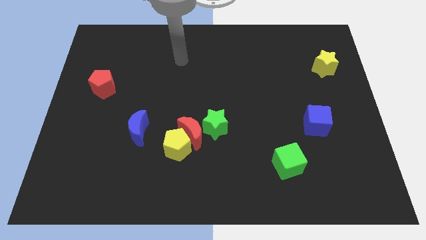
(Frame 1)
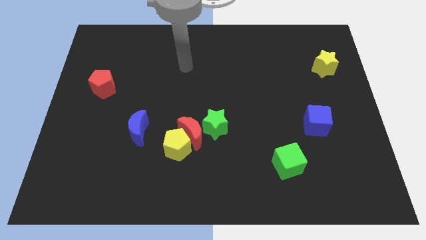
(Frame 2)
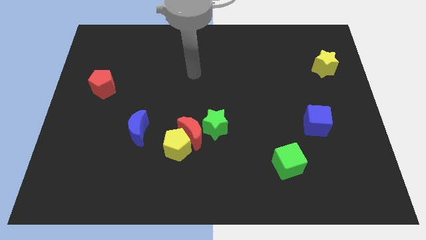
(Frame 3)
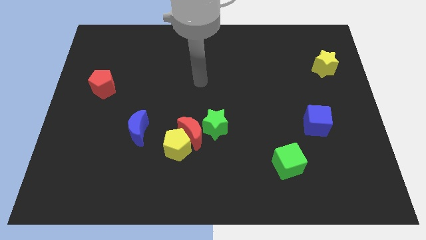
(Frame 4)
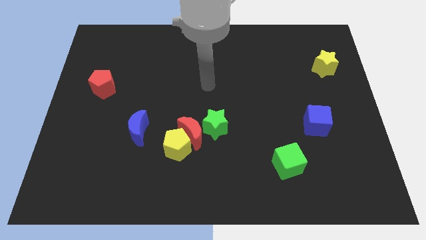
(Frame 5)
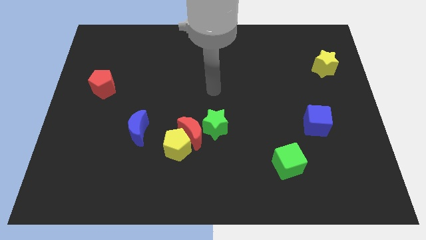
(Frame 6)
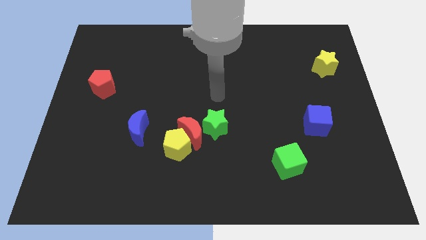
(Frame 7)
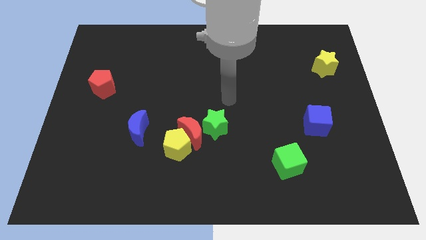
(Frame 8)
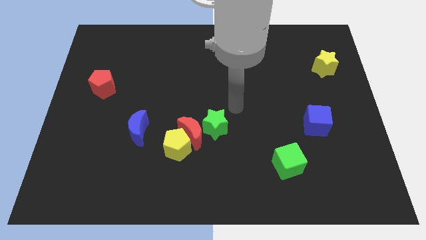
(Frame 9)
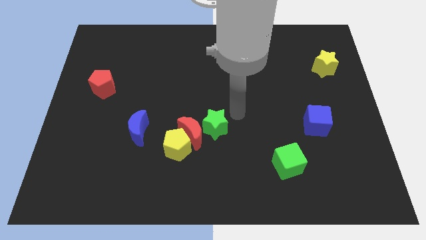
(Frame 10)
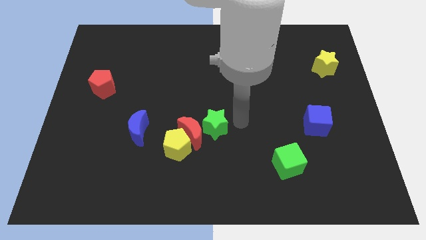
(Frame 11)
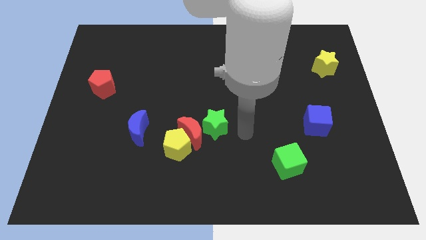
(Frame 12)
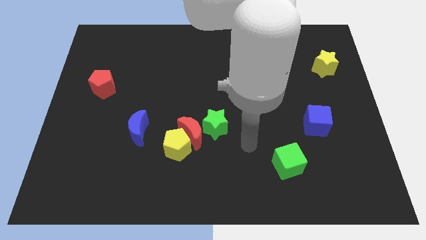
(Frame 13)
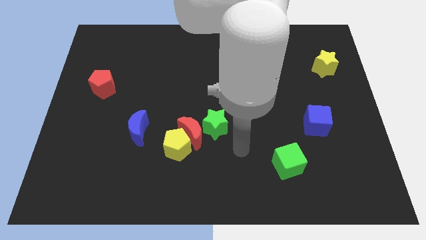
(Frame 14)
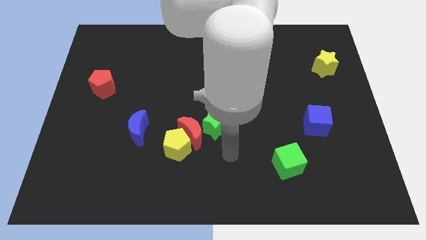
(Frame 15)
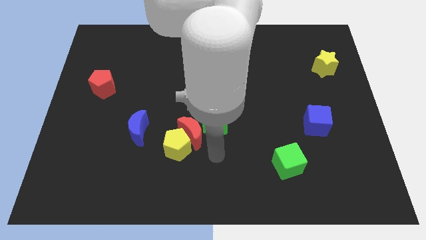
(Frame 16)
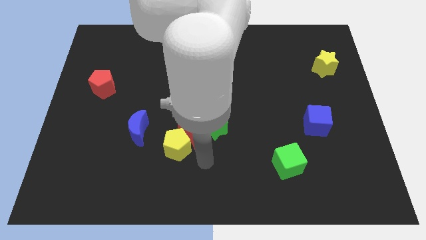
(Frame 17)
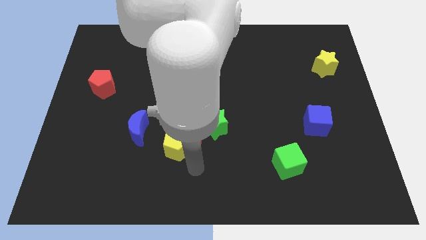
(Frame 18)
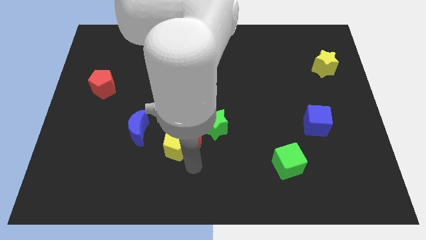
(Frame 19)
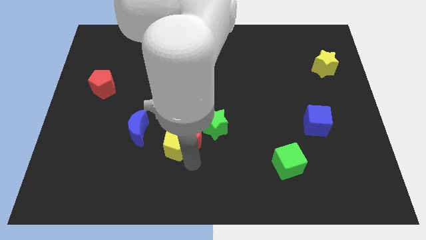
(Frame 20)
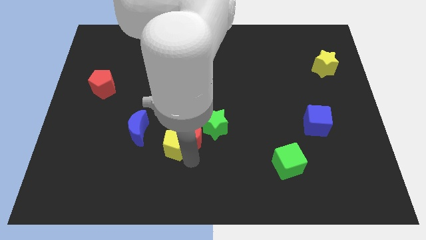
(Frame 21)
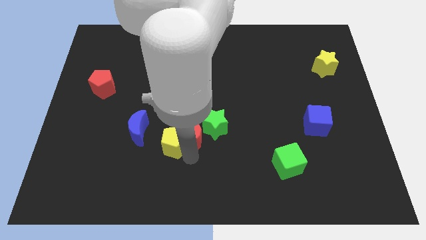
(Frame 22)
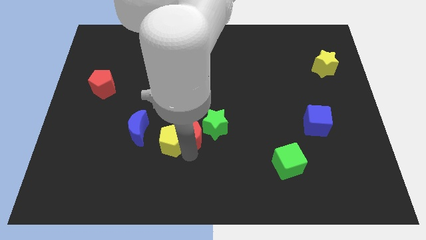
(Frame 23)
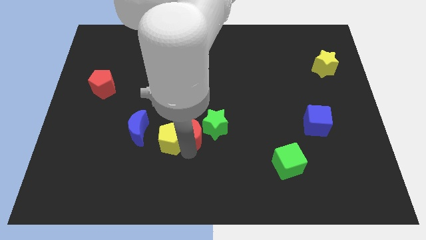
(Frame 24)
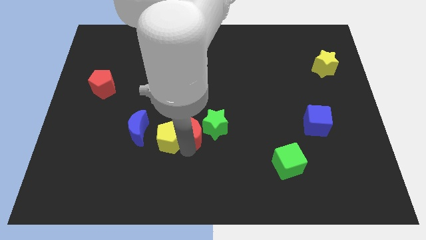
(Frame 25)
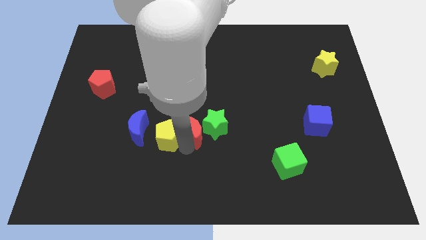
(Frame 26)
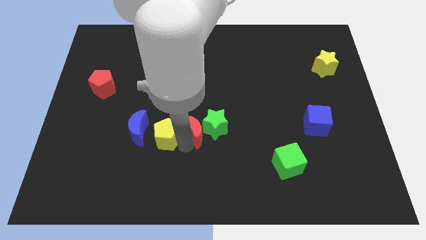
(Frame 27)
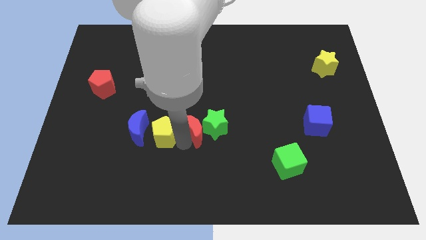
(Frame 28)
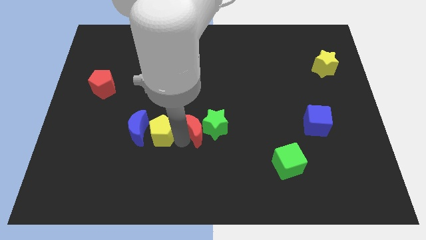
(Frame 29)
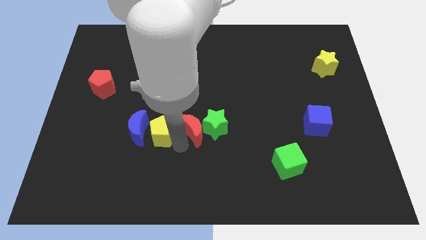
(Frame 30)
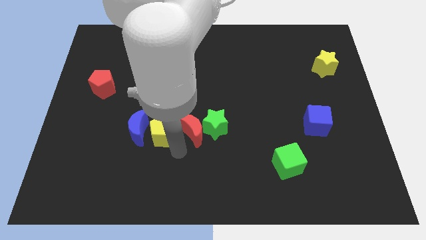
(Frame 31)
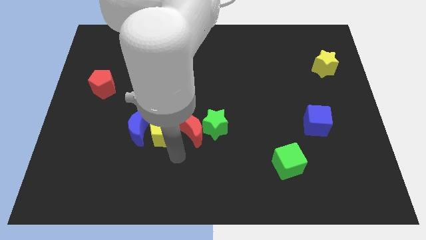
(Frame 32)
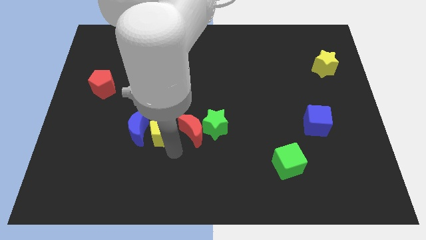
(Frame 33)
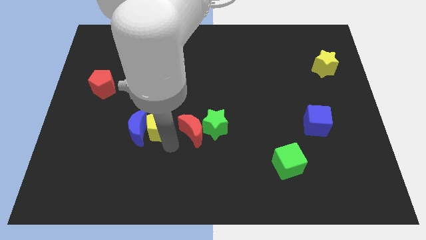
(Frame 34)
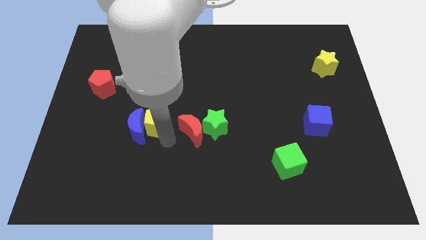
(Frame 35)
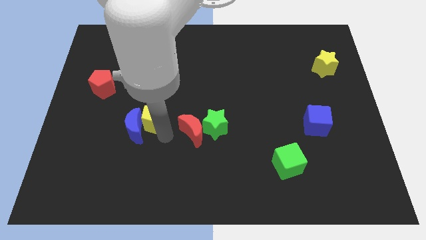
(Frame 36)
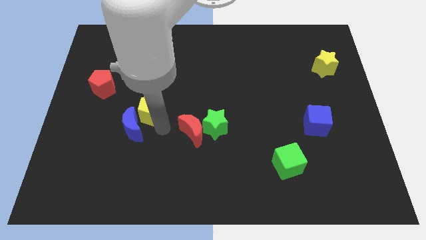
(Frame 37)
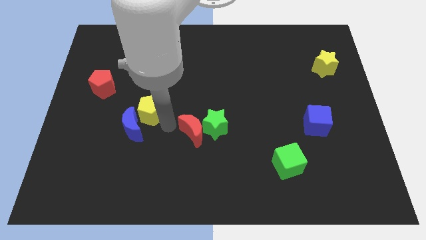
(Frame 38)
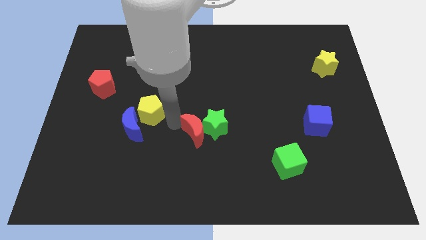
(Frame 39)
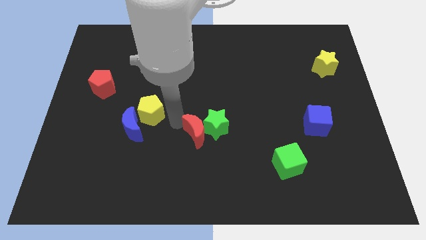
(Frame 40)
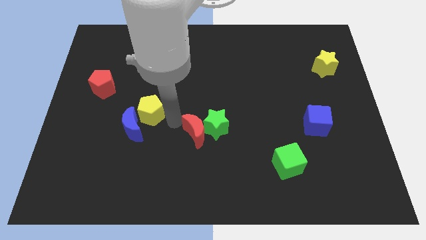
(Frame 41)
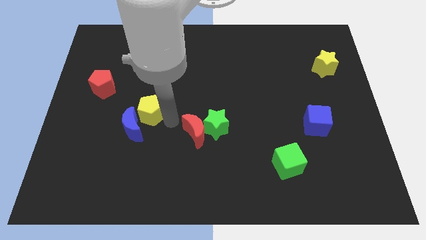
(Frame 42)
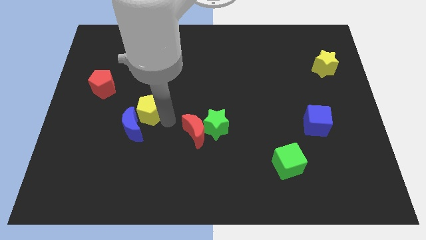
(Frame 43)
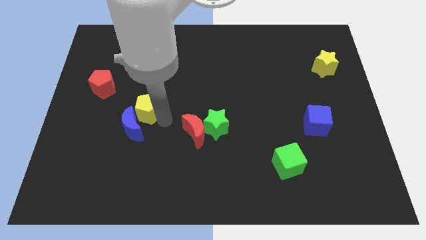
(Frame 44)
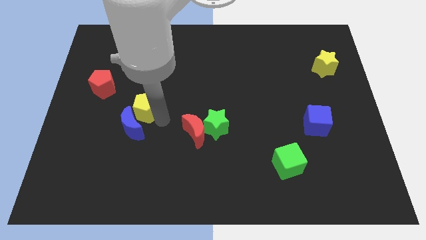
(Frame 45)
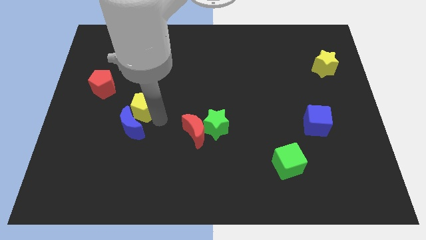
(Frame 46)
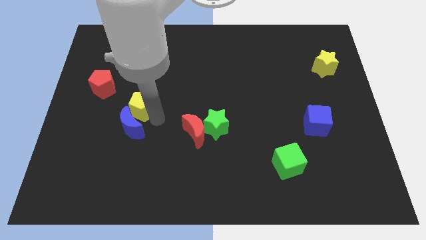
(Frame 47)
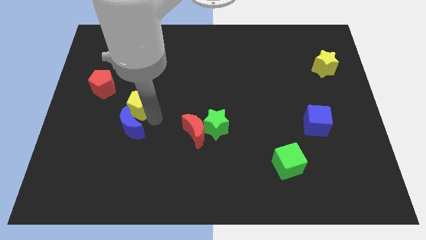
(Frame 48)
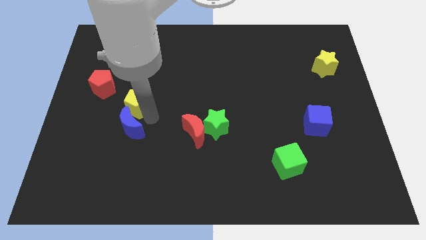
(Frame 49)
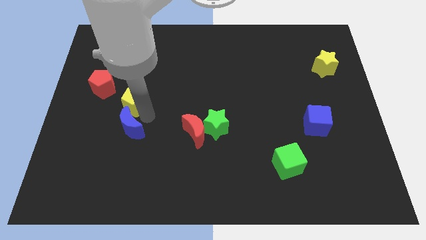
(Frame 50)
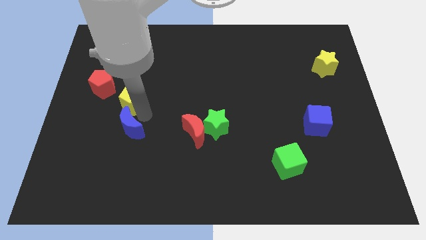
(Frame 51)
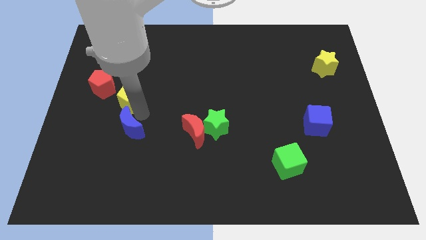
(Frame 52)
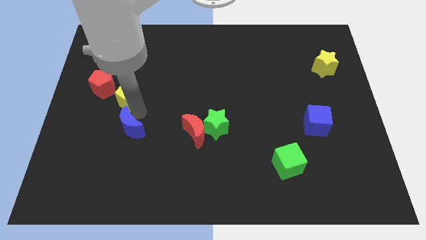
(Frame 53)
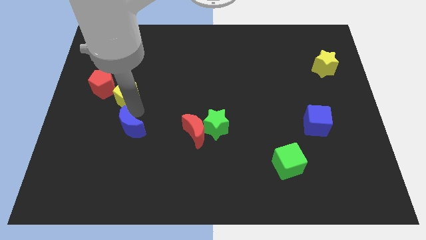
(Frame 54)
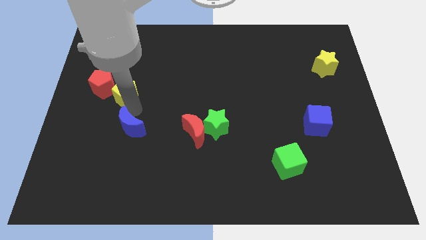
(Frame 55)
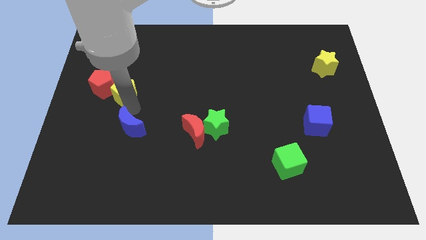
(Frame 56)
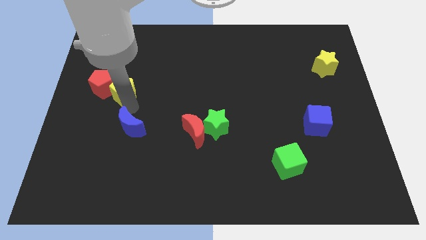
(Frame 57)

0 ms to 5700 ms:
put the yellow pentagon to the red pentagon
